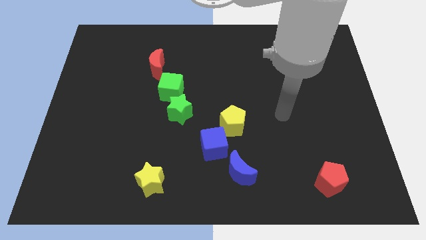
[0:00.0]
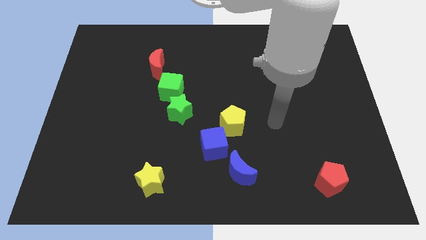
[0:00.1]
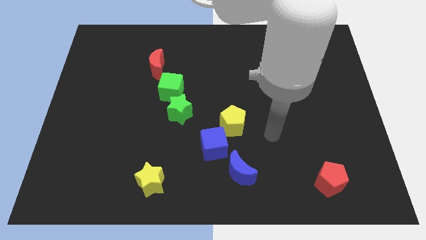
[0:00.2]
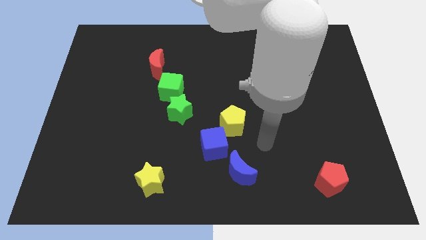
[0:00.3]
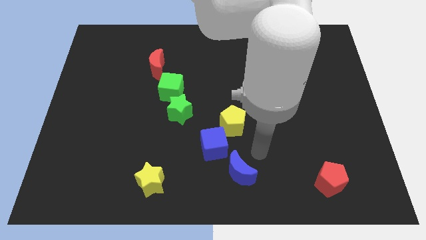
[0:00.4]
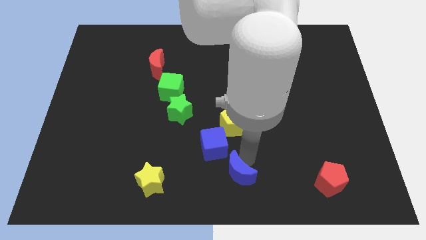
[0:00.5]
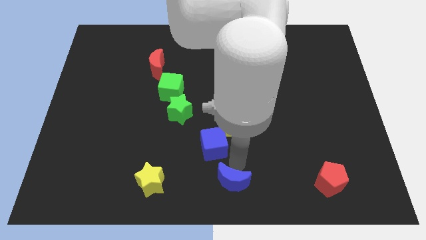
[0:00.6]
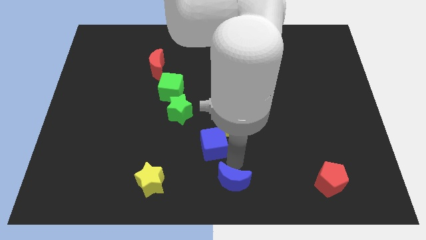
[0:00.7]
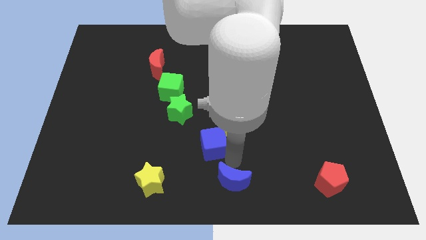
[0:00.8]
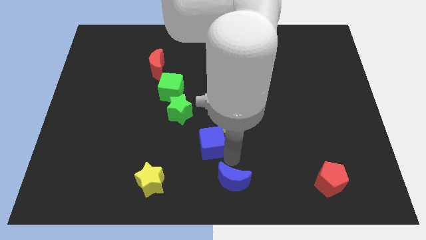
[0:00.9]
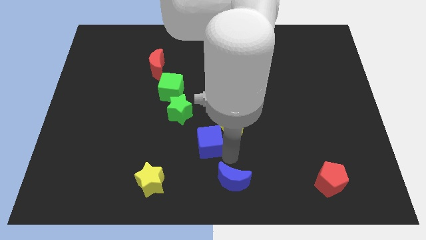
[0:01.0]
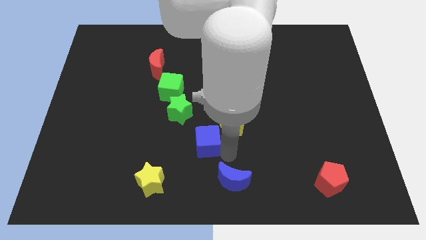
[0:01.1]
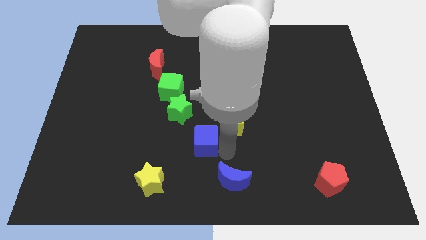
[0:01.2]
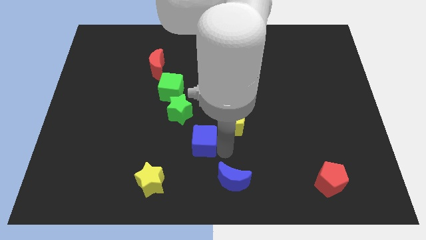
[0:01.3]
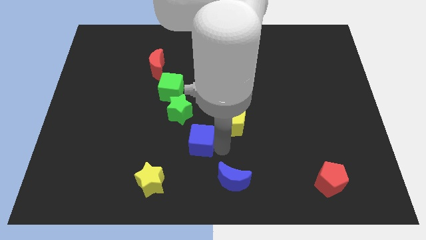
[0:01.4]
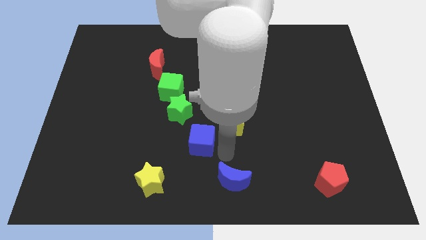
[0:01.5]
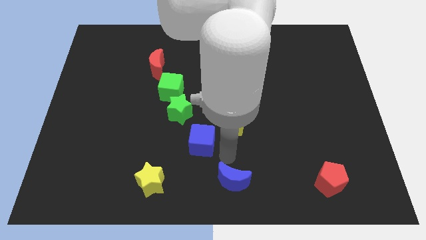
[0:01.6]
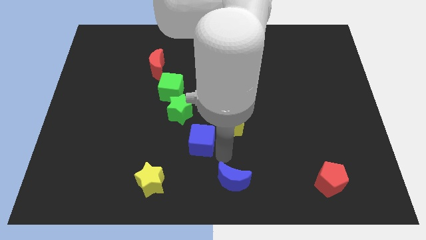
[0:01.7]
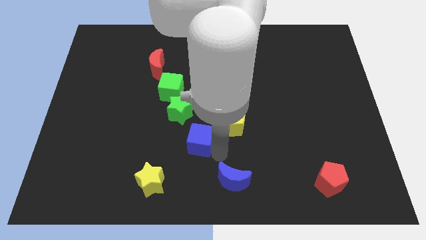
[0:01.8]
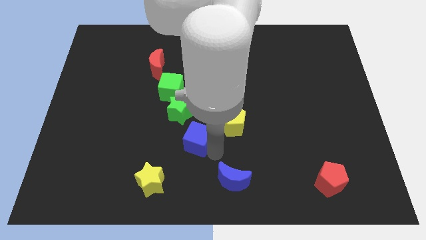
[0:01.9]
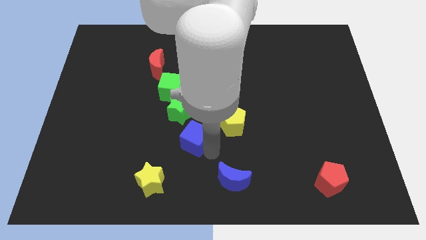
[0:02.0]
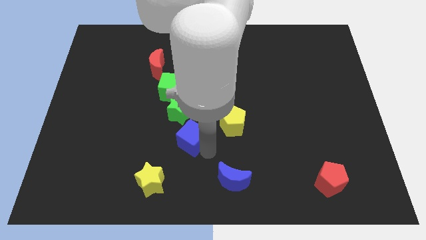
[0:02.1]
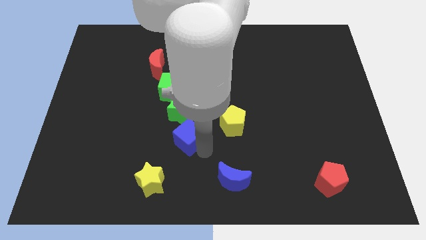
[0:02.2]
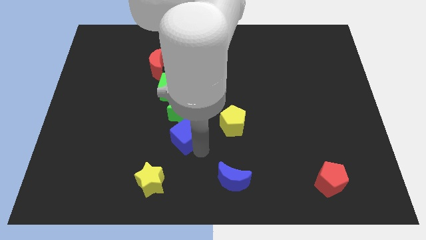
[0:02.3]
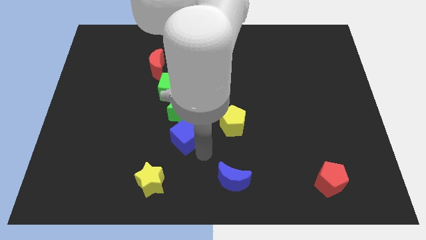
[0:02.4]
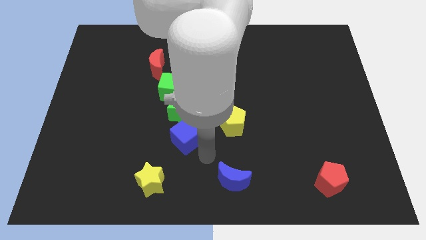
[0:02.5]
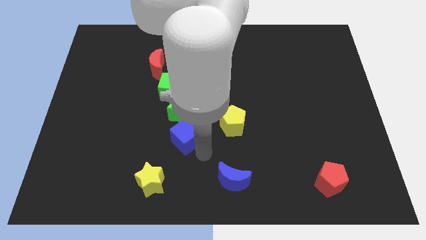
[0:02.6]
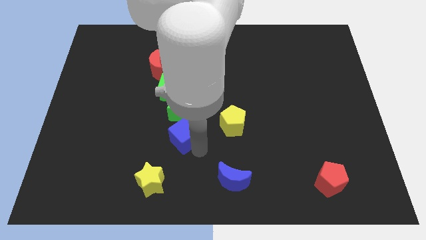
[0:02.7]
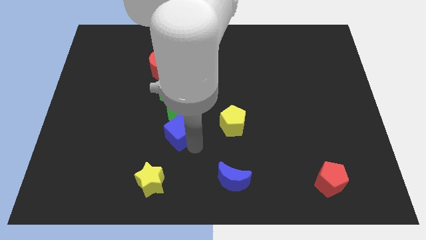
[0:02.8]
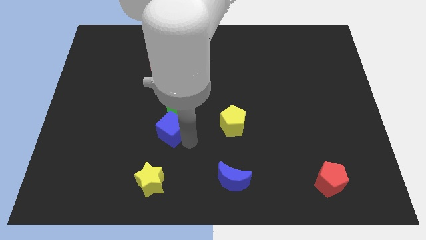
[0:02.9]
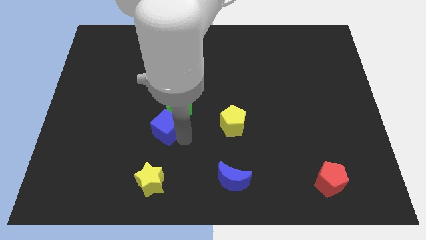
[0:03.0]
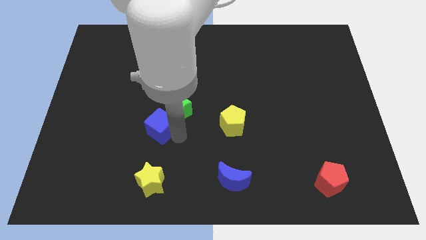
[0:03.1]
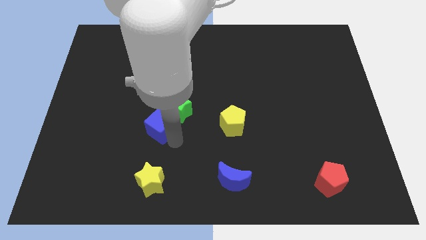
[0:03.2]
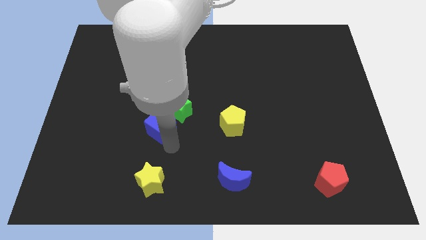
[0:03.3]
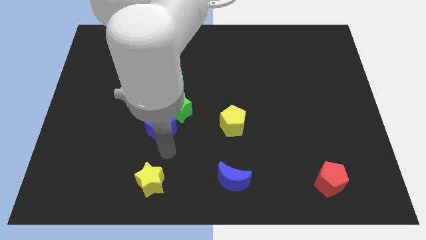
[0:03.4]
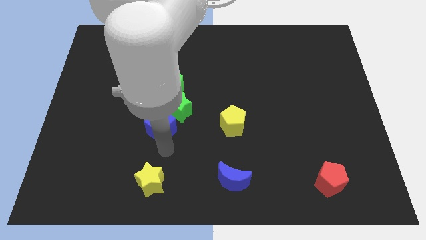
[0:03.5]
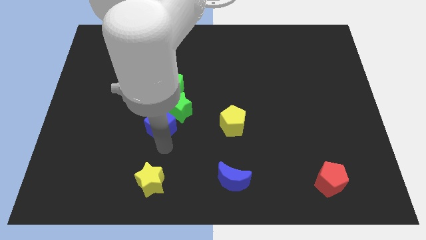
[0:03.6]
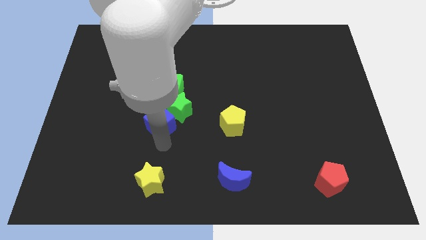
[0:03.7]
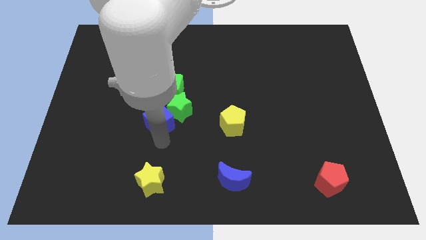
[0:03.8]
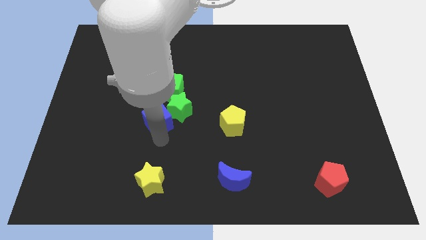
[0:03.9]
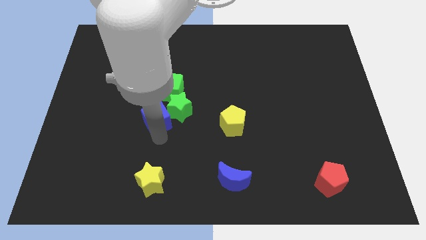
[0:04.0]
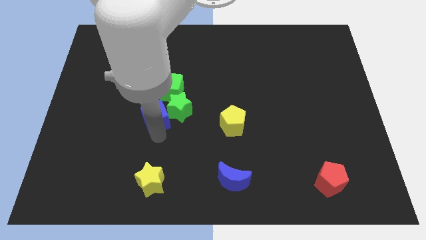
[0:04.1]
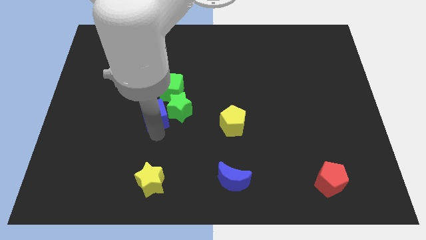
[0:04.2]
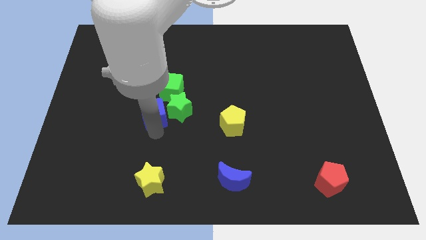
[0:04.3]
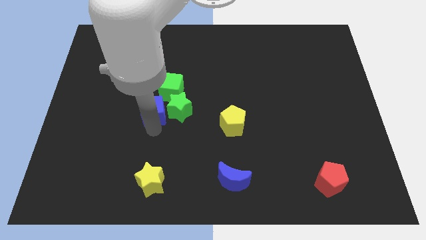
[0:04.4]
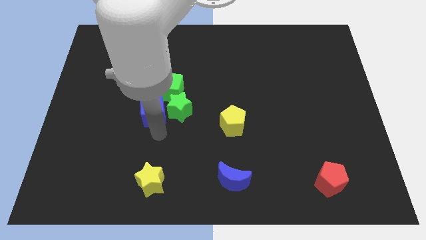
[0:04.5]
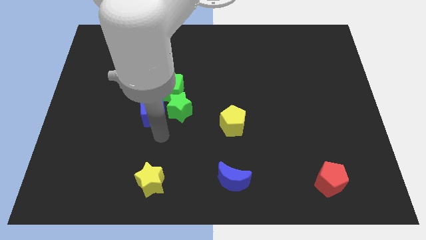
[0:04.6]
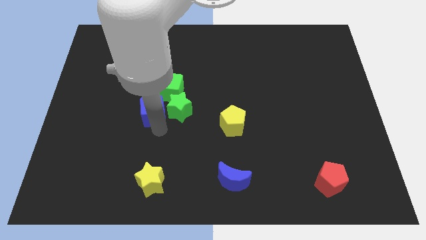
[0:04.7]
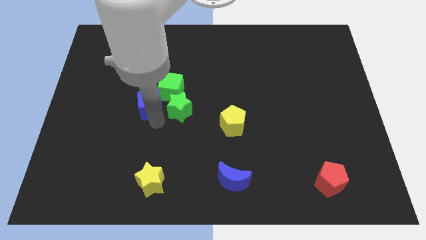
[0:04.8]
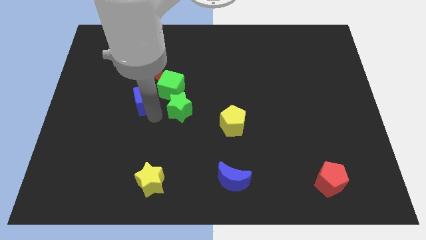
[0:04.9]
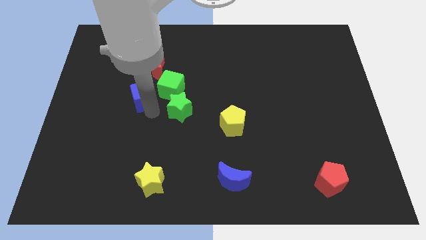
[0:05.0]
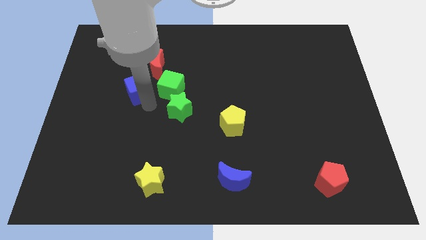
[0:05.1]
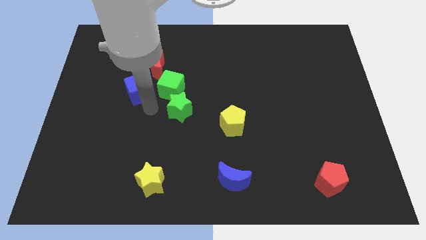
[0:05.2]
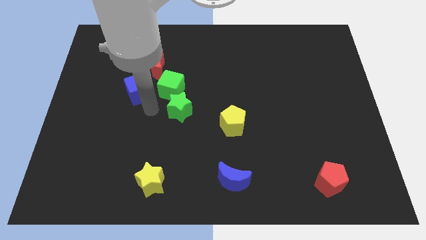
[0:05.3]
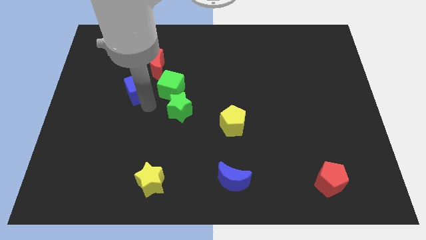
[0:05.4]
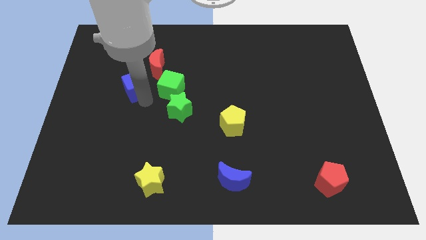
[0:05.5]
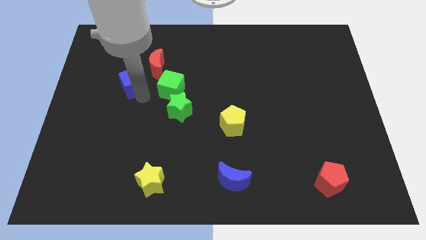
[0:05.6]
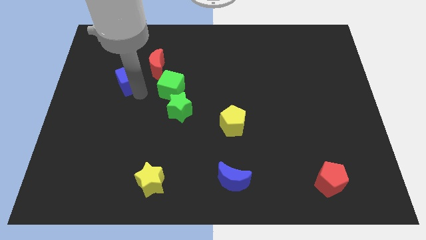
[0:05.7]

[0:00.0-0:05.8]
push the blue cube just left of the red moon

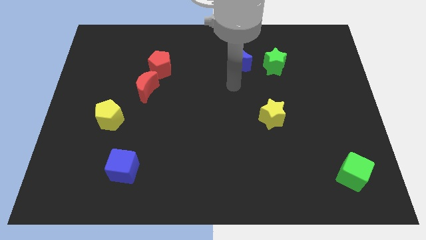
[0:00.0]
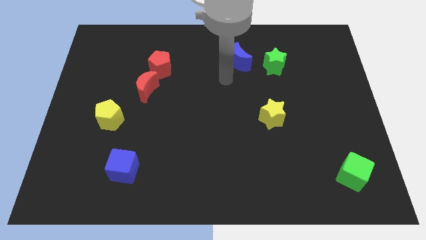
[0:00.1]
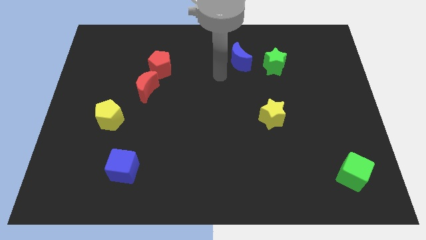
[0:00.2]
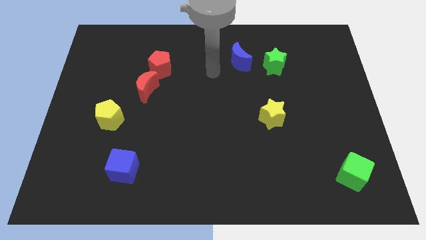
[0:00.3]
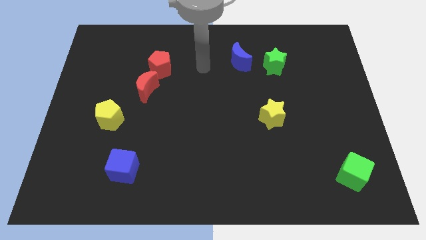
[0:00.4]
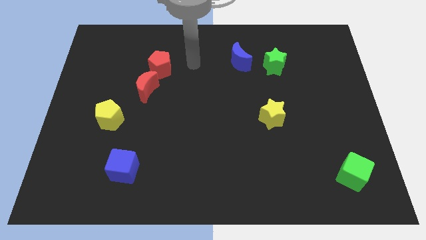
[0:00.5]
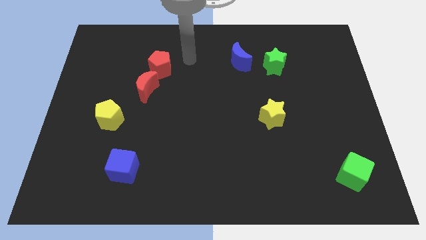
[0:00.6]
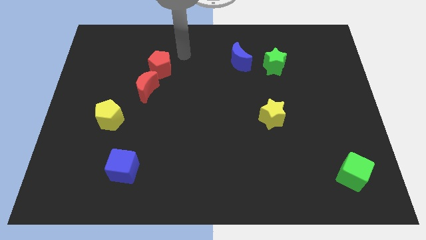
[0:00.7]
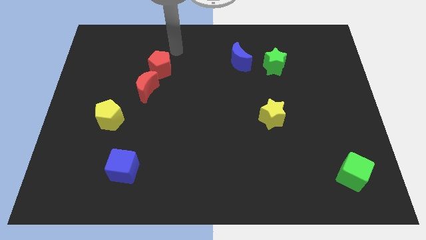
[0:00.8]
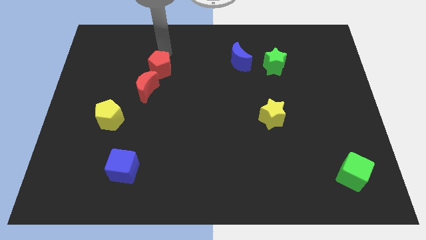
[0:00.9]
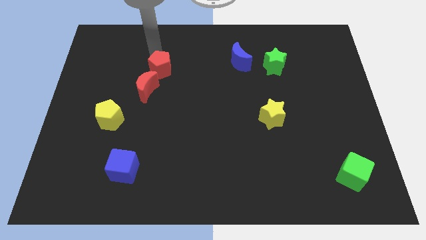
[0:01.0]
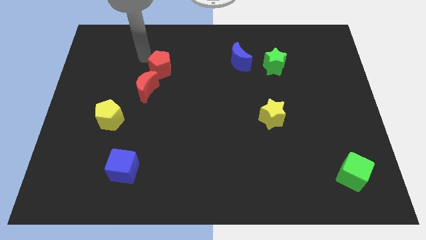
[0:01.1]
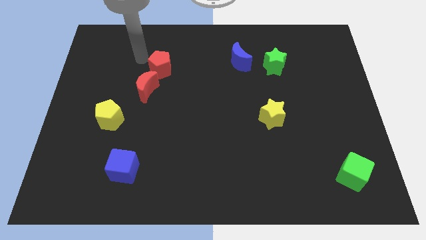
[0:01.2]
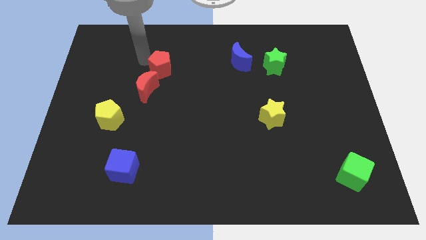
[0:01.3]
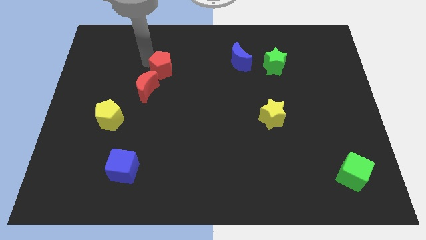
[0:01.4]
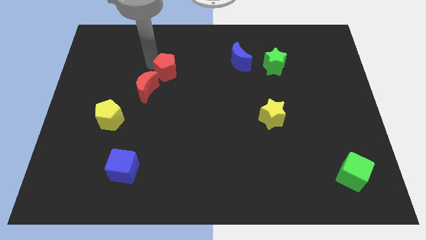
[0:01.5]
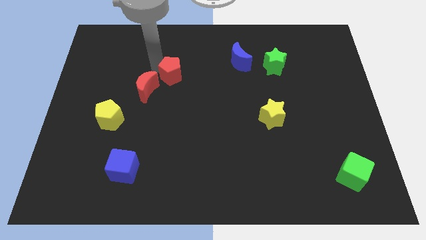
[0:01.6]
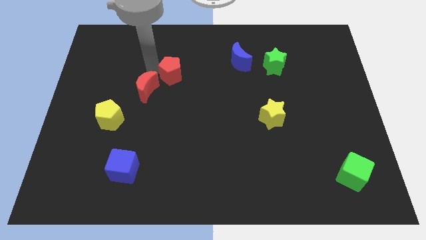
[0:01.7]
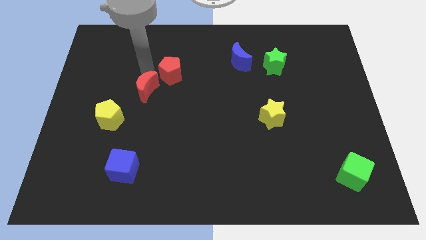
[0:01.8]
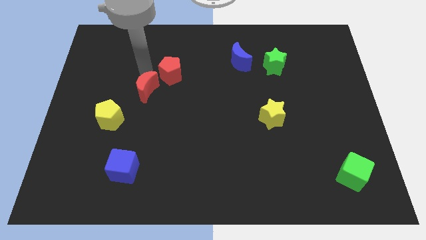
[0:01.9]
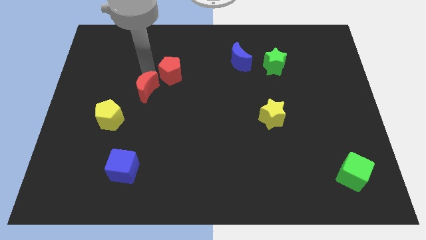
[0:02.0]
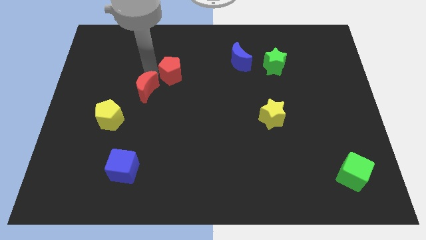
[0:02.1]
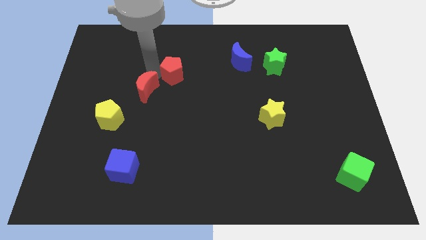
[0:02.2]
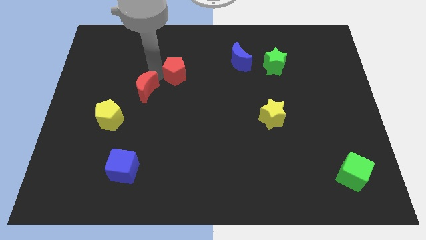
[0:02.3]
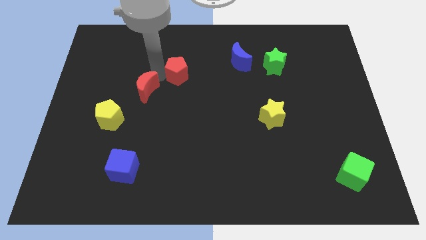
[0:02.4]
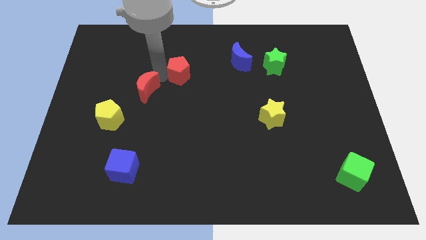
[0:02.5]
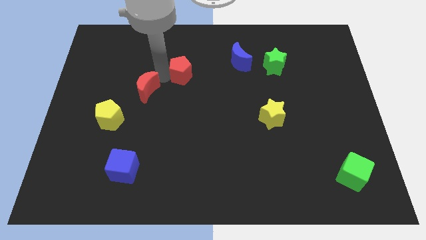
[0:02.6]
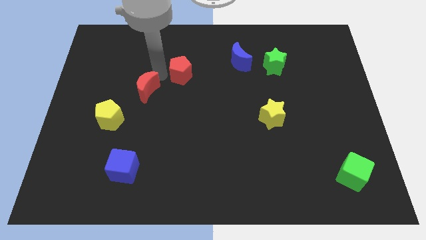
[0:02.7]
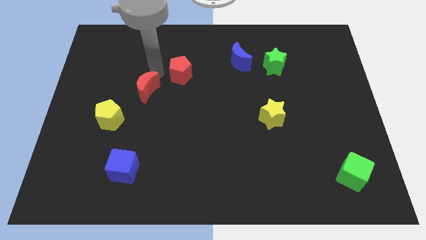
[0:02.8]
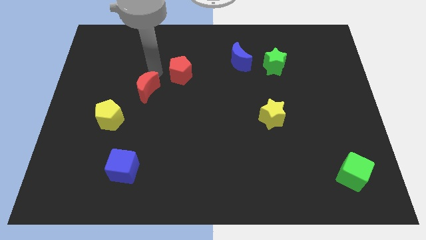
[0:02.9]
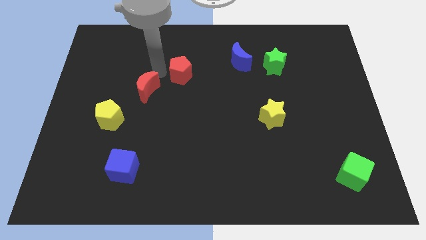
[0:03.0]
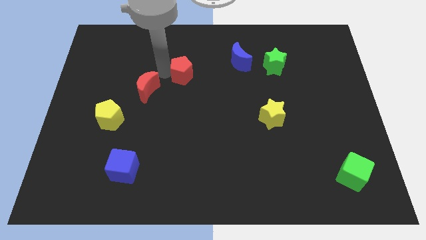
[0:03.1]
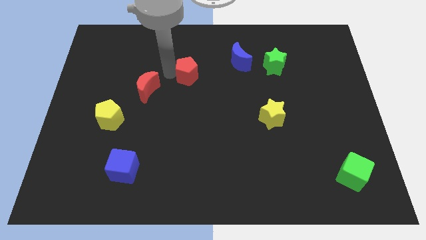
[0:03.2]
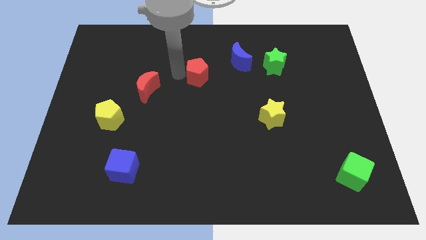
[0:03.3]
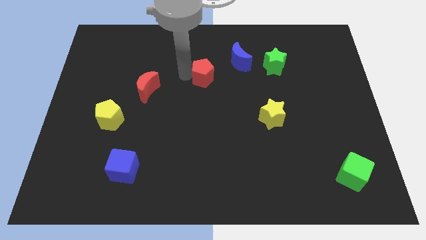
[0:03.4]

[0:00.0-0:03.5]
move the red pentagon to the bottom left side of the blue moon
